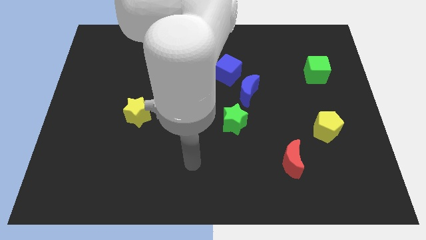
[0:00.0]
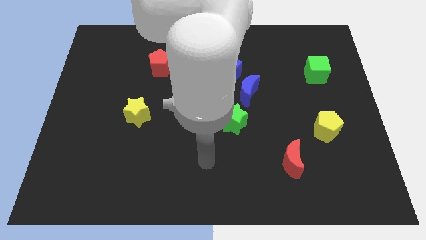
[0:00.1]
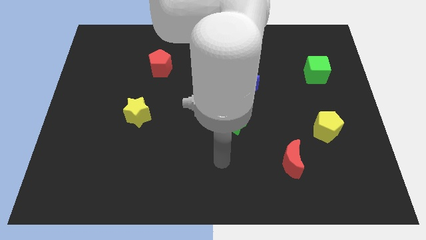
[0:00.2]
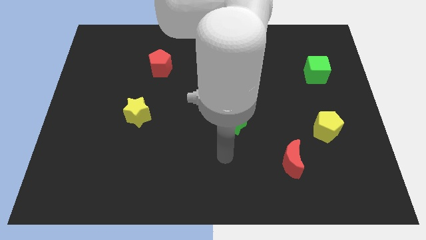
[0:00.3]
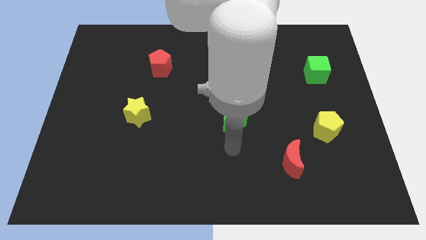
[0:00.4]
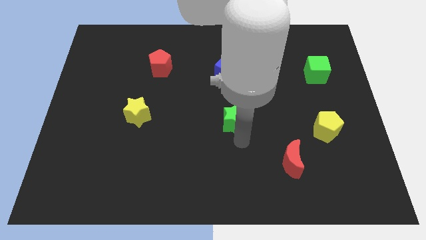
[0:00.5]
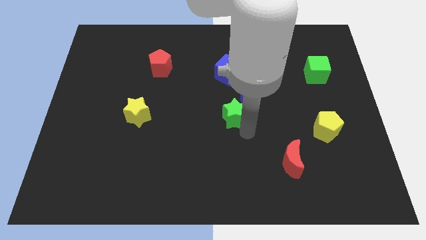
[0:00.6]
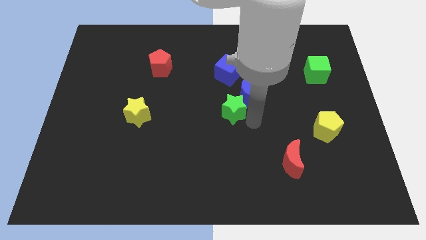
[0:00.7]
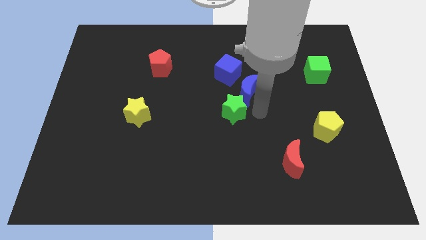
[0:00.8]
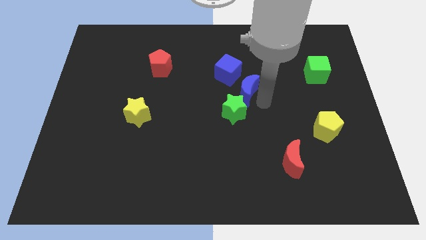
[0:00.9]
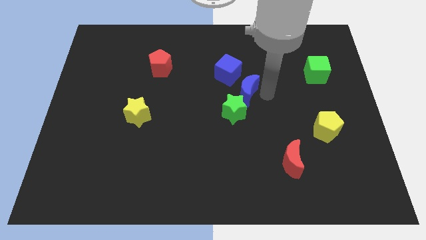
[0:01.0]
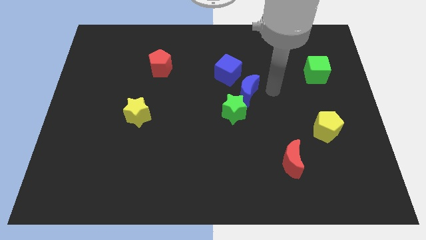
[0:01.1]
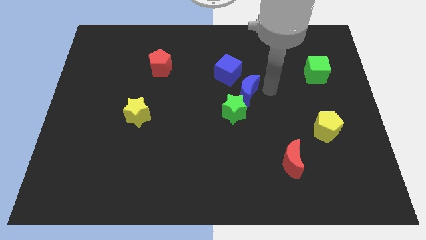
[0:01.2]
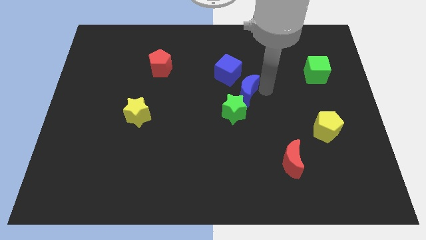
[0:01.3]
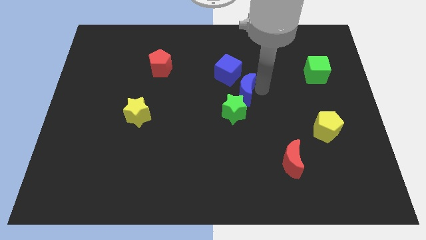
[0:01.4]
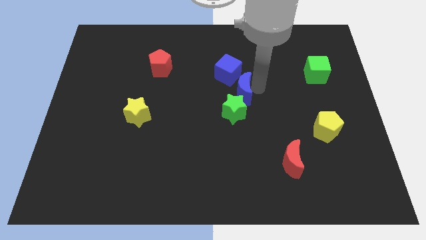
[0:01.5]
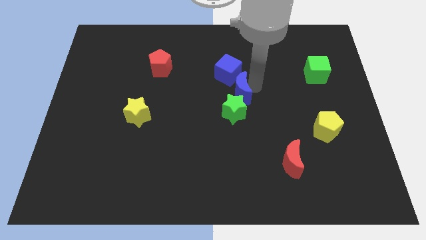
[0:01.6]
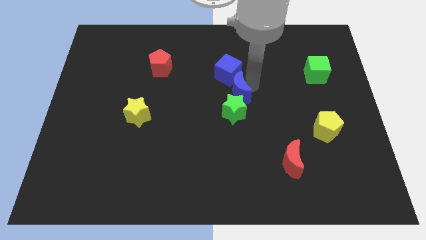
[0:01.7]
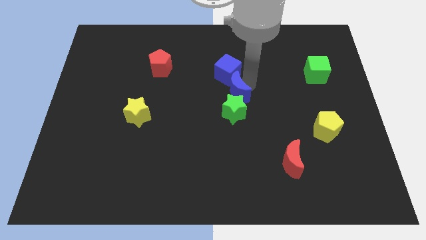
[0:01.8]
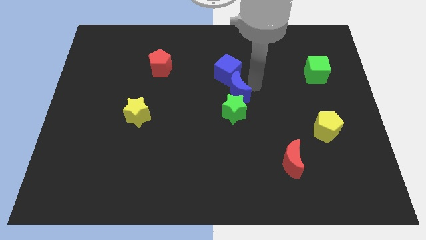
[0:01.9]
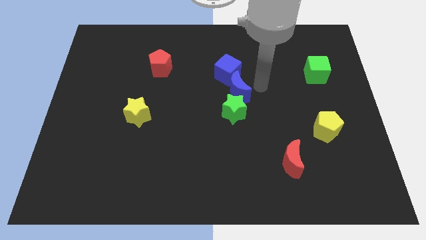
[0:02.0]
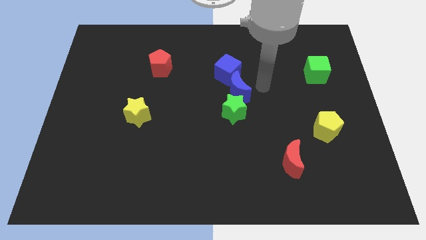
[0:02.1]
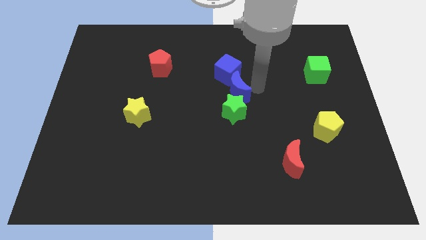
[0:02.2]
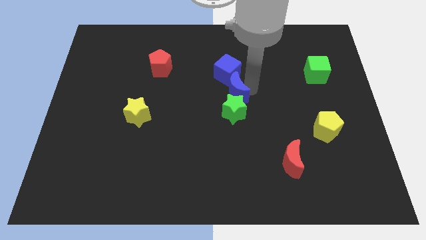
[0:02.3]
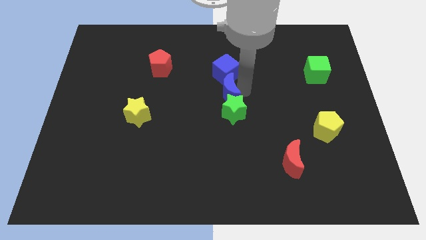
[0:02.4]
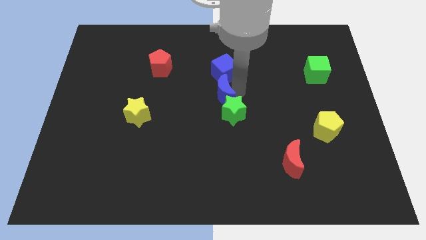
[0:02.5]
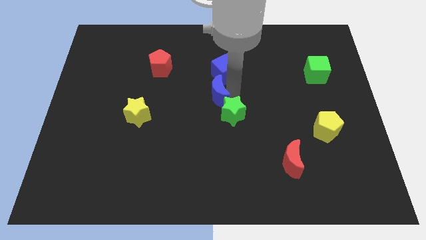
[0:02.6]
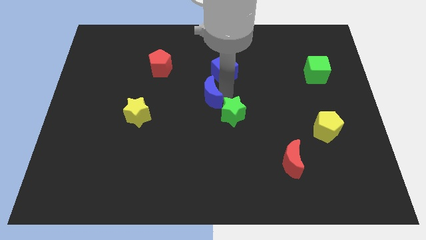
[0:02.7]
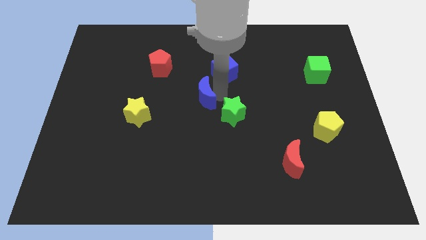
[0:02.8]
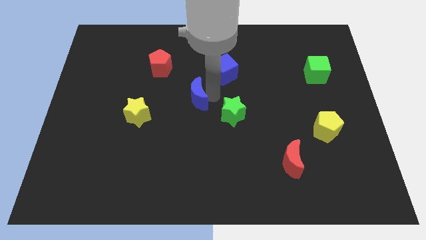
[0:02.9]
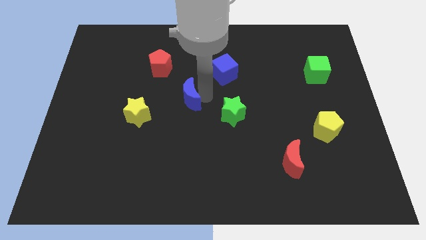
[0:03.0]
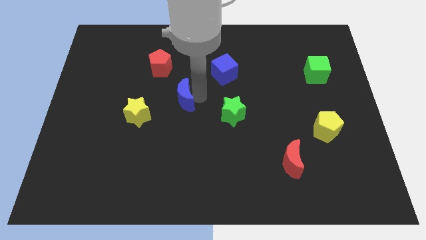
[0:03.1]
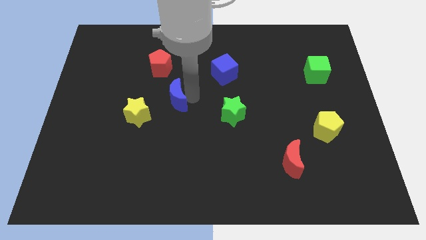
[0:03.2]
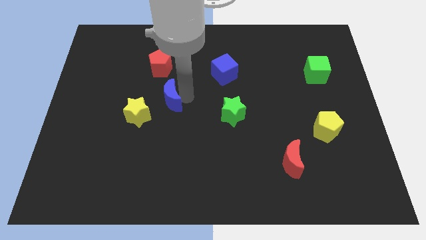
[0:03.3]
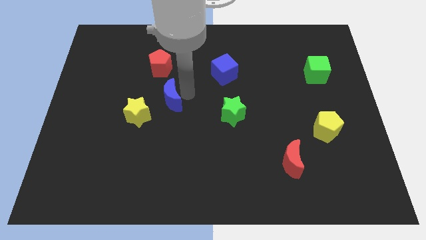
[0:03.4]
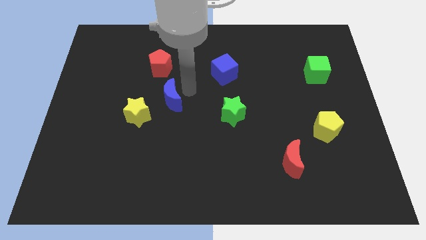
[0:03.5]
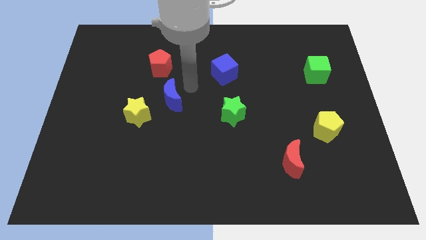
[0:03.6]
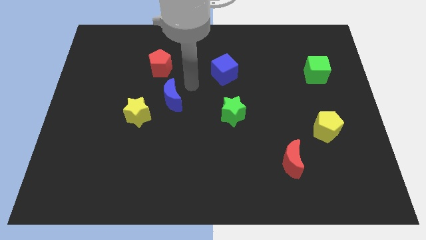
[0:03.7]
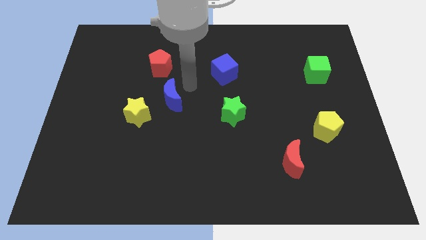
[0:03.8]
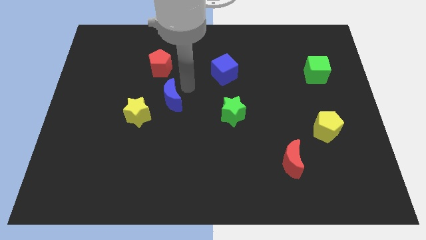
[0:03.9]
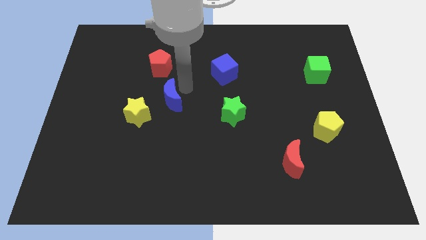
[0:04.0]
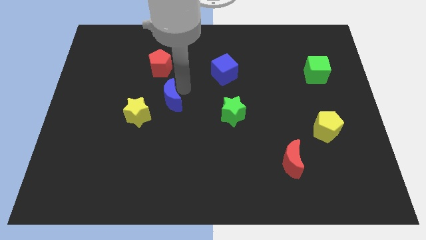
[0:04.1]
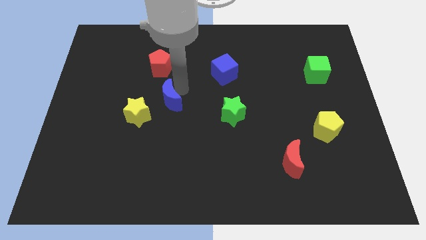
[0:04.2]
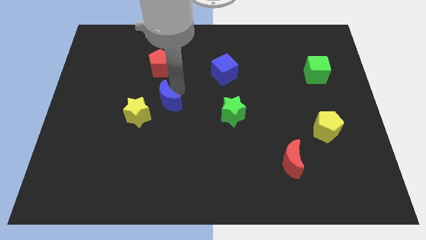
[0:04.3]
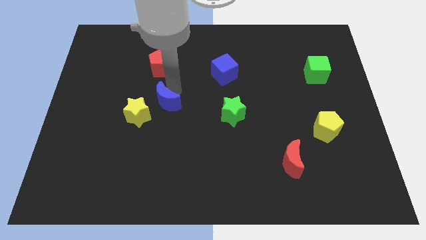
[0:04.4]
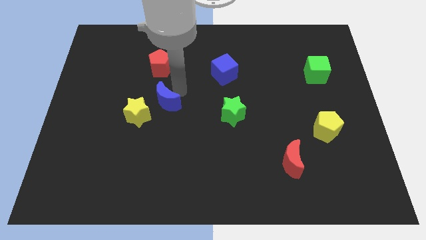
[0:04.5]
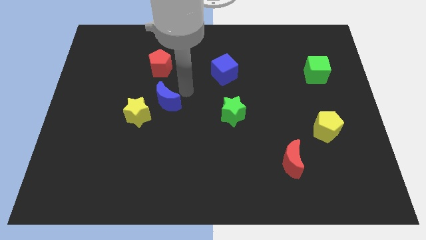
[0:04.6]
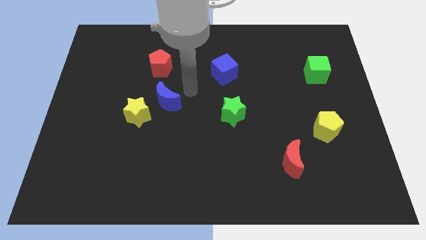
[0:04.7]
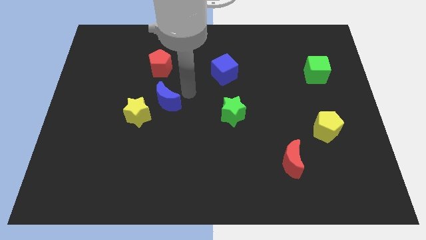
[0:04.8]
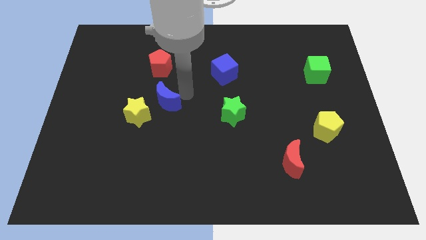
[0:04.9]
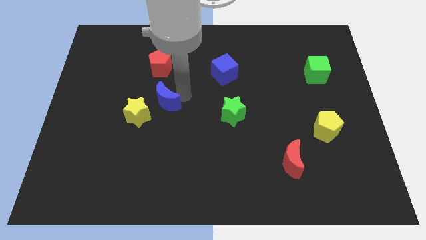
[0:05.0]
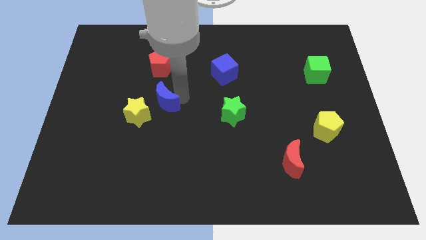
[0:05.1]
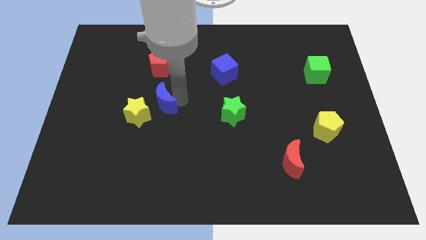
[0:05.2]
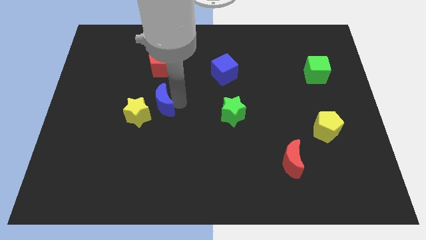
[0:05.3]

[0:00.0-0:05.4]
slide the blue moon next to the yellow star

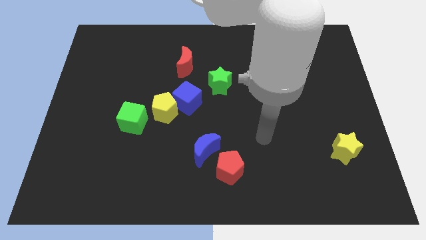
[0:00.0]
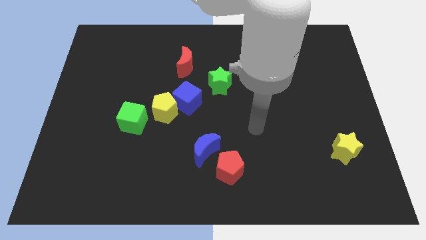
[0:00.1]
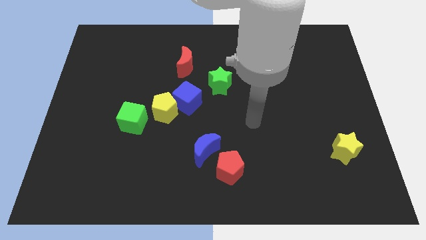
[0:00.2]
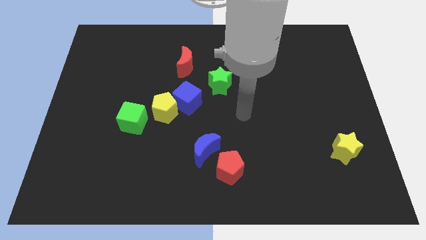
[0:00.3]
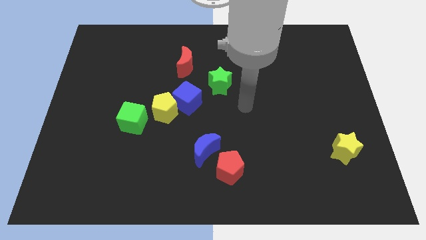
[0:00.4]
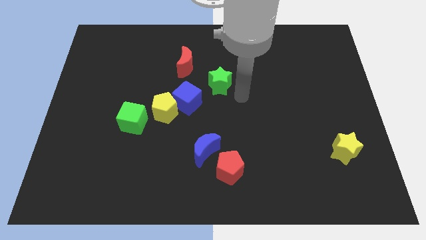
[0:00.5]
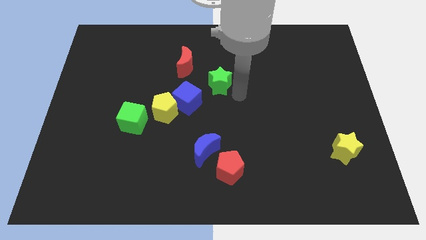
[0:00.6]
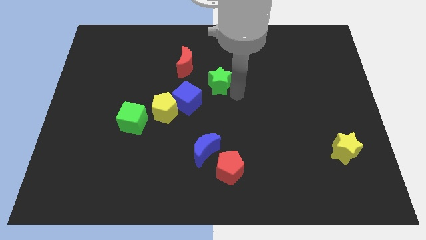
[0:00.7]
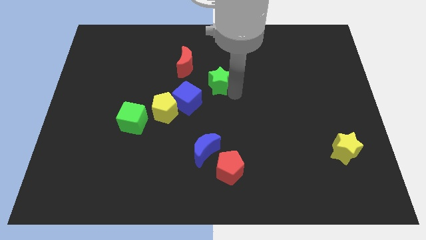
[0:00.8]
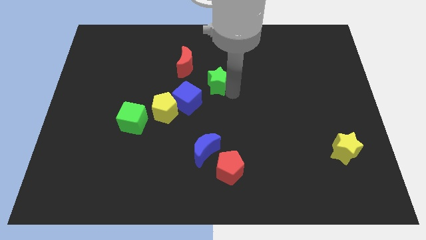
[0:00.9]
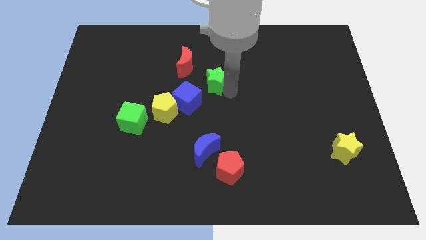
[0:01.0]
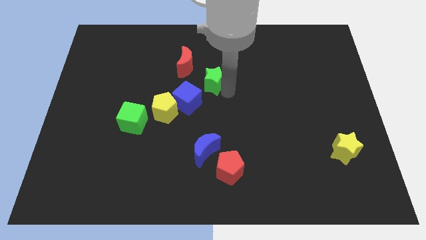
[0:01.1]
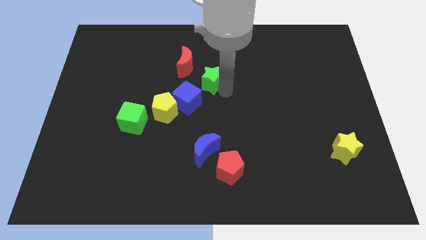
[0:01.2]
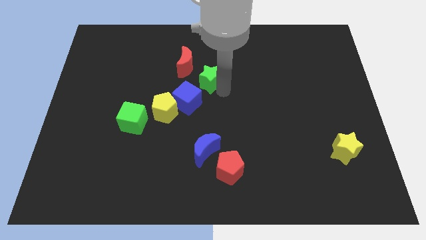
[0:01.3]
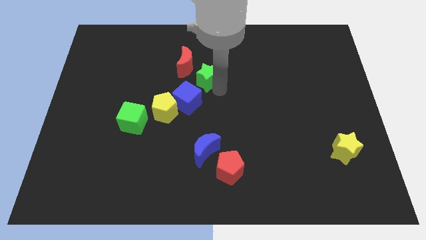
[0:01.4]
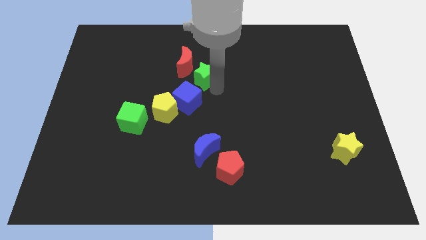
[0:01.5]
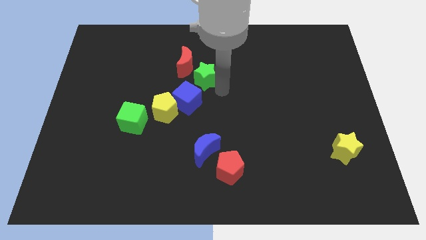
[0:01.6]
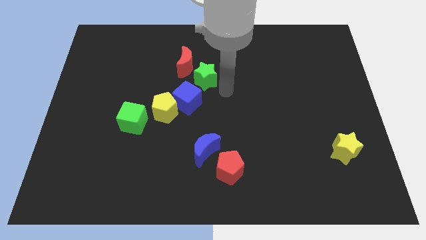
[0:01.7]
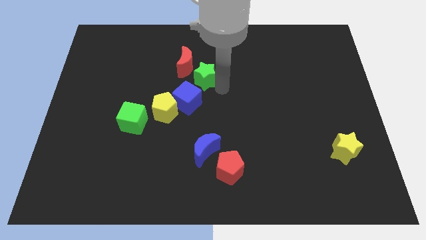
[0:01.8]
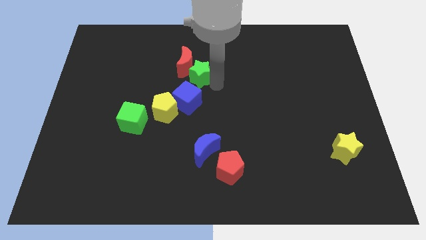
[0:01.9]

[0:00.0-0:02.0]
push the green star towards the red moon
